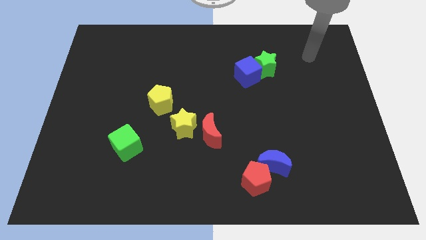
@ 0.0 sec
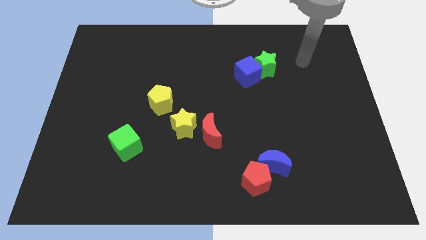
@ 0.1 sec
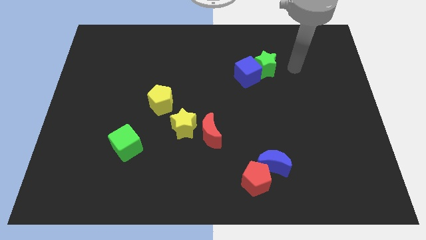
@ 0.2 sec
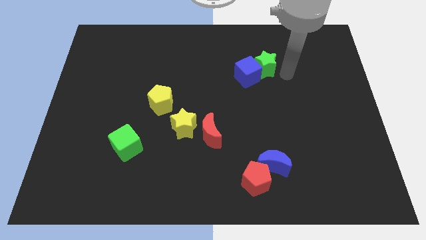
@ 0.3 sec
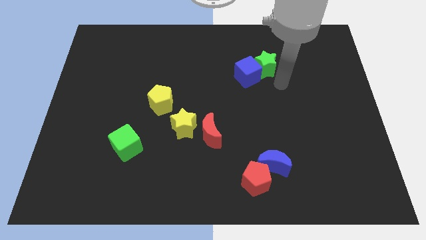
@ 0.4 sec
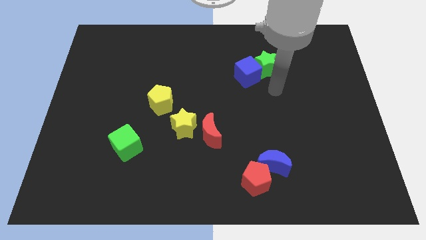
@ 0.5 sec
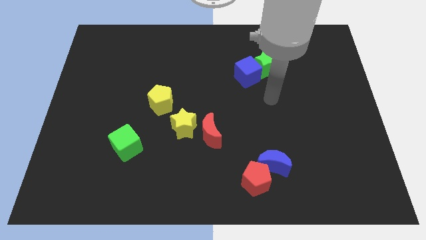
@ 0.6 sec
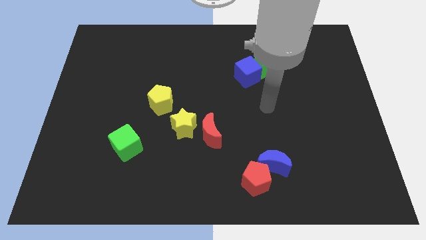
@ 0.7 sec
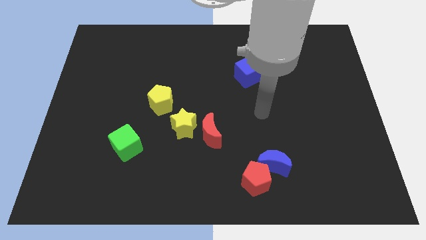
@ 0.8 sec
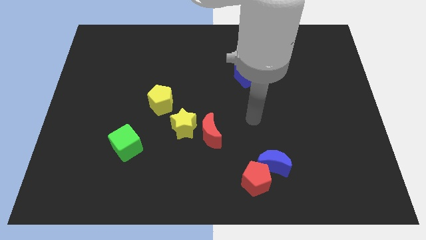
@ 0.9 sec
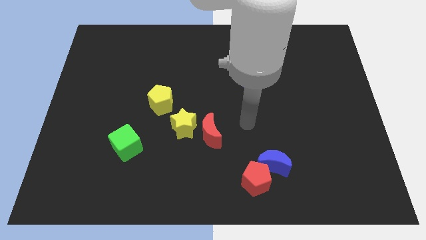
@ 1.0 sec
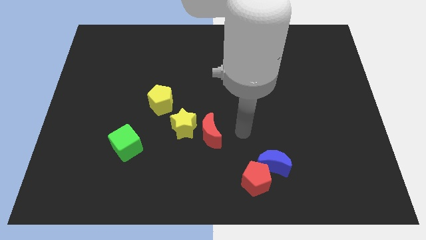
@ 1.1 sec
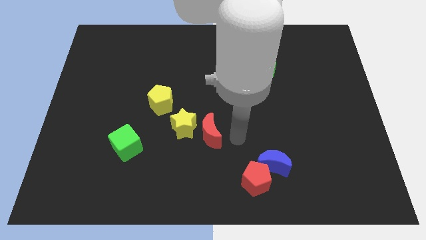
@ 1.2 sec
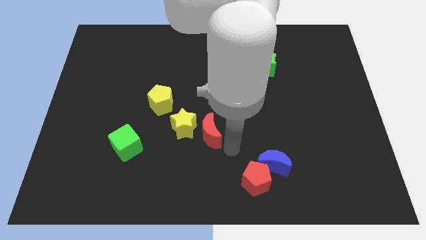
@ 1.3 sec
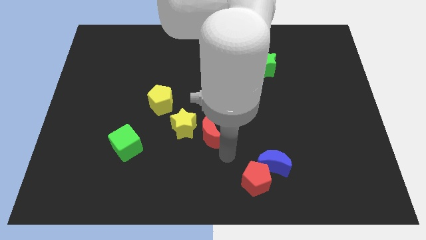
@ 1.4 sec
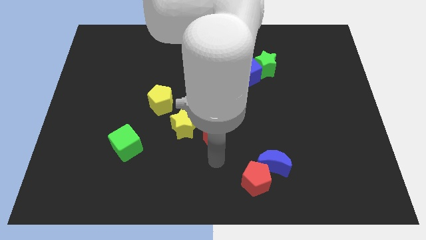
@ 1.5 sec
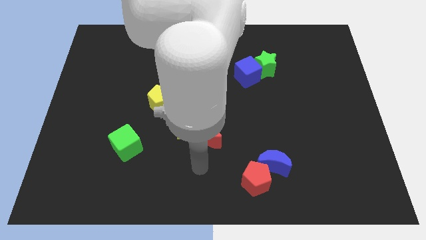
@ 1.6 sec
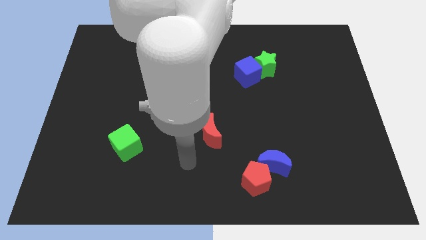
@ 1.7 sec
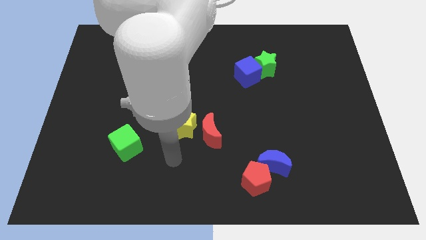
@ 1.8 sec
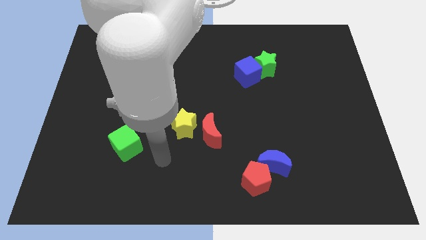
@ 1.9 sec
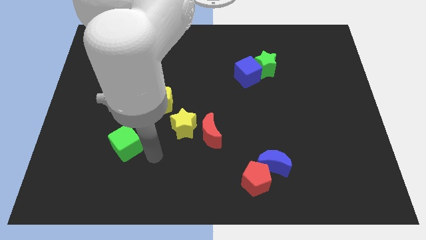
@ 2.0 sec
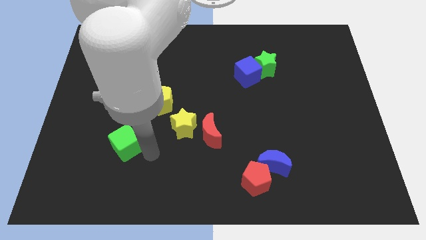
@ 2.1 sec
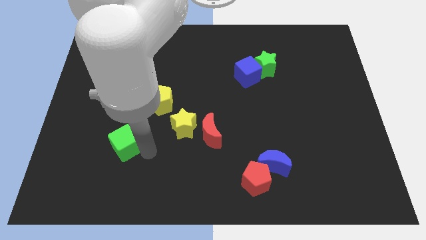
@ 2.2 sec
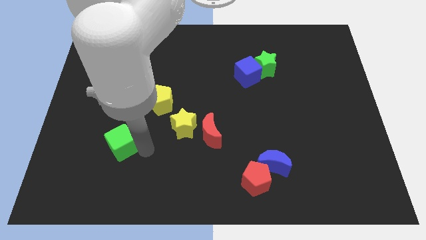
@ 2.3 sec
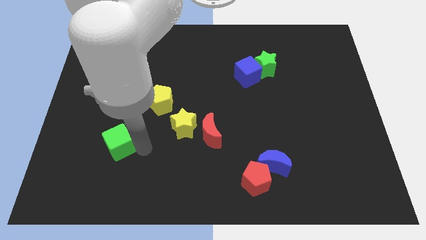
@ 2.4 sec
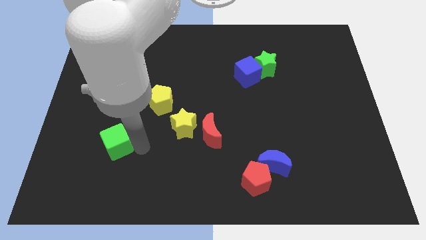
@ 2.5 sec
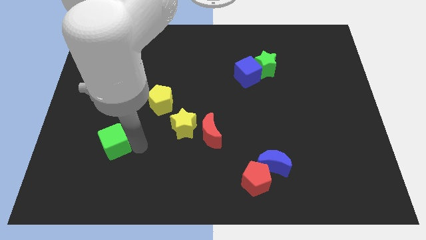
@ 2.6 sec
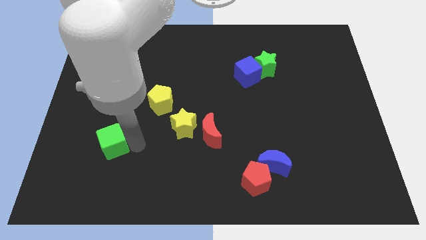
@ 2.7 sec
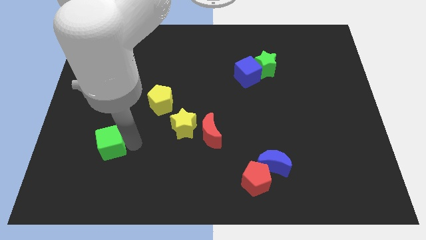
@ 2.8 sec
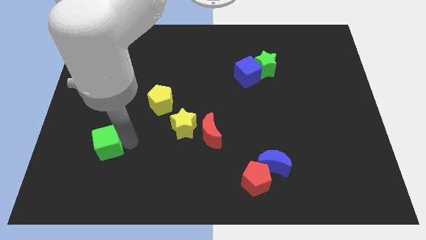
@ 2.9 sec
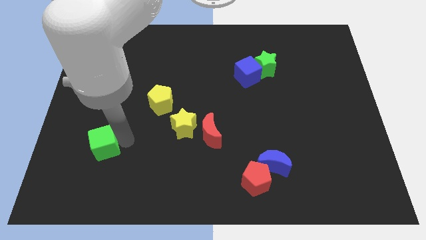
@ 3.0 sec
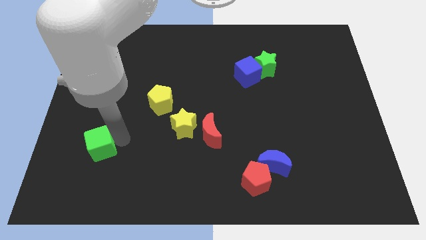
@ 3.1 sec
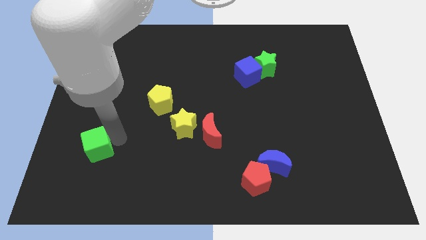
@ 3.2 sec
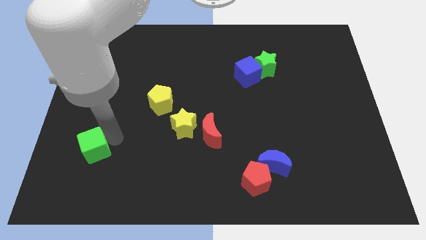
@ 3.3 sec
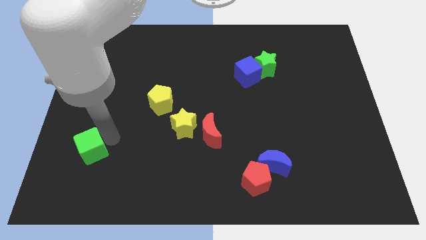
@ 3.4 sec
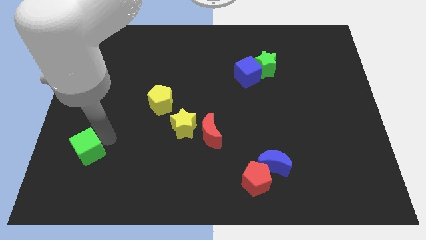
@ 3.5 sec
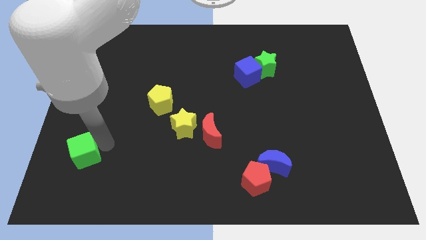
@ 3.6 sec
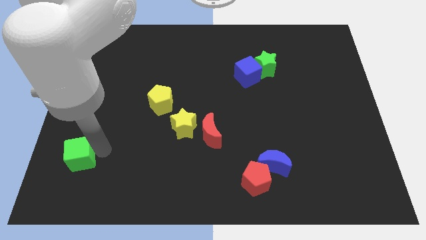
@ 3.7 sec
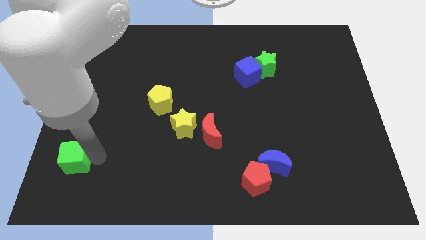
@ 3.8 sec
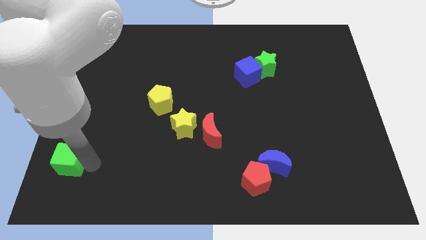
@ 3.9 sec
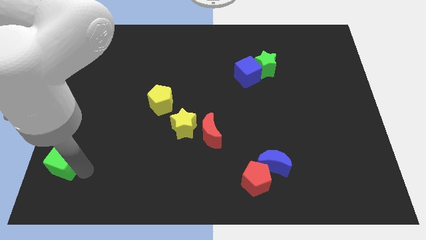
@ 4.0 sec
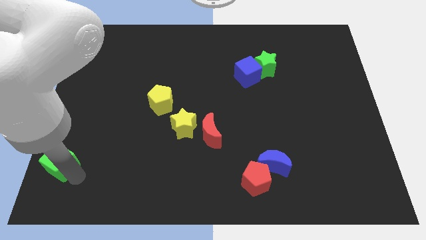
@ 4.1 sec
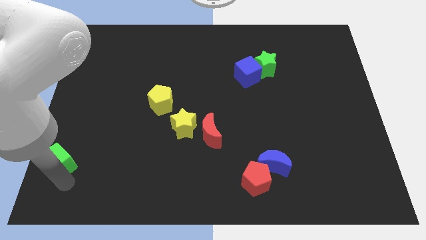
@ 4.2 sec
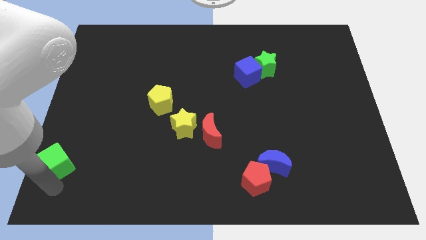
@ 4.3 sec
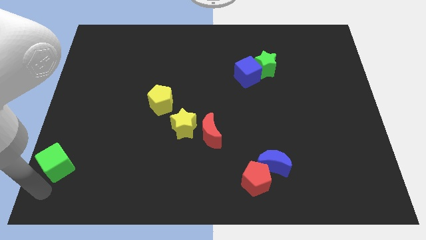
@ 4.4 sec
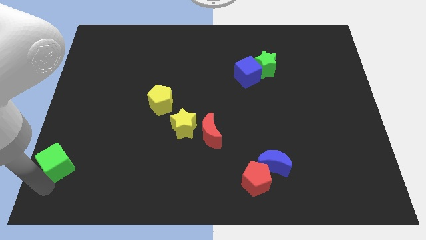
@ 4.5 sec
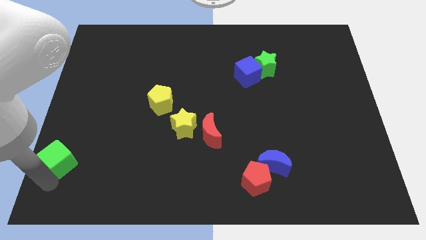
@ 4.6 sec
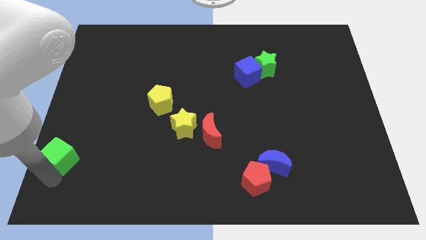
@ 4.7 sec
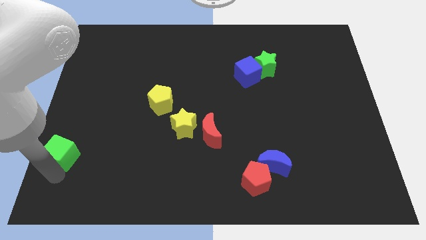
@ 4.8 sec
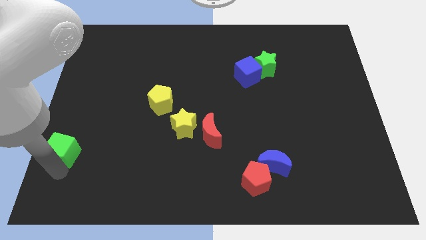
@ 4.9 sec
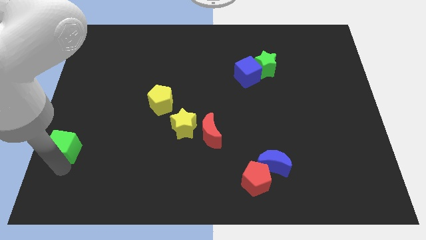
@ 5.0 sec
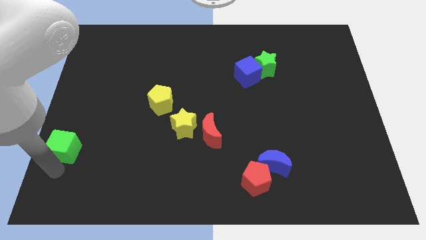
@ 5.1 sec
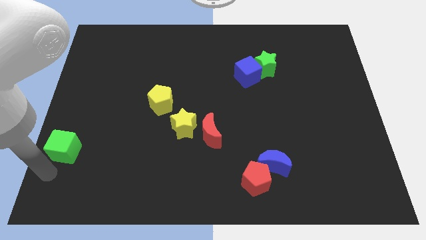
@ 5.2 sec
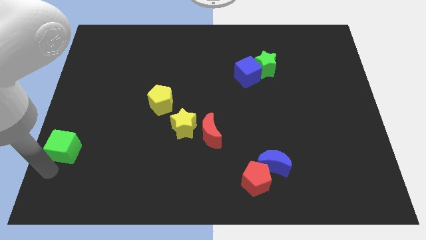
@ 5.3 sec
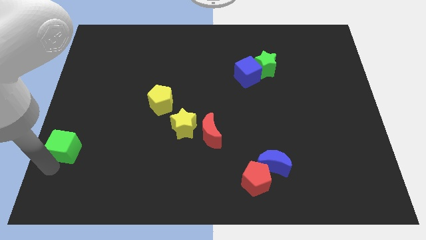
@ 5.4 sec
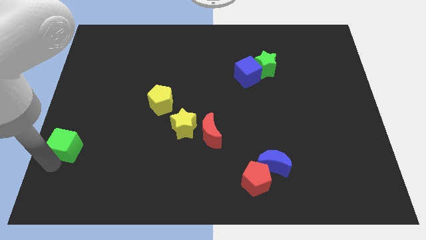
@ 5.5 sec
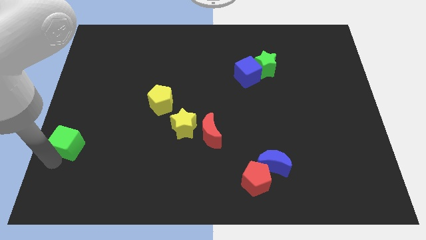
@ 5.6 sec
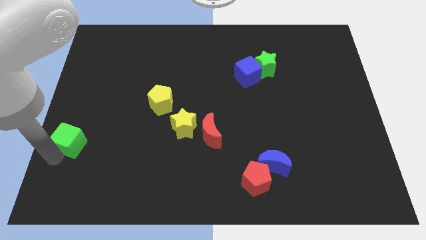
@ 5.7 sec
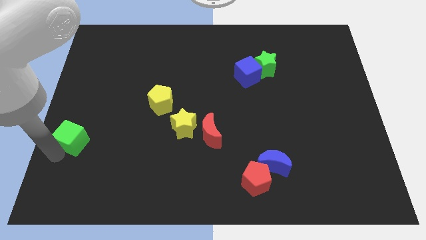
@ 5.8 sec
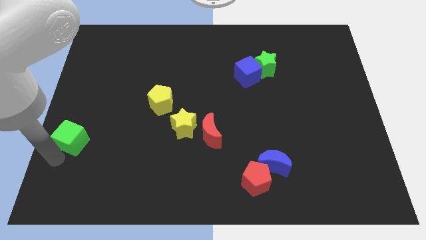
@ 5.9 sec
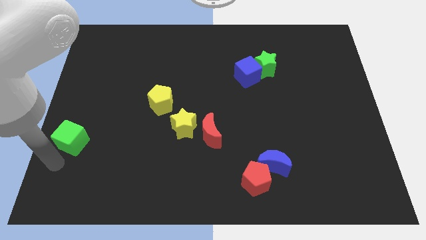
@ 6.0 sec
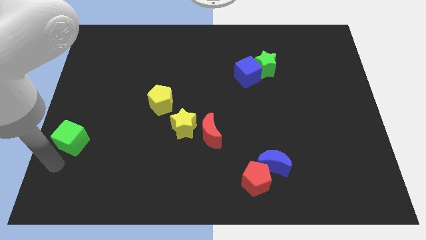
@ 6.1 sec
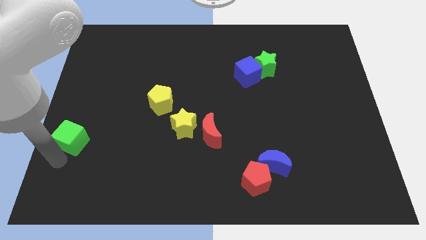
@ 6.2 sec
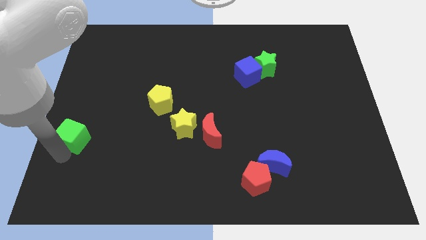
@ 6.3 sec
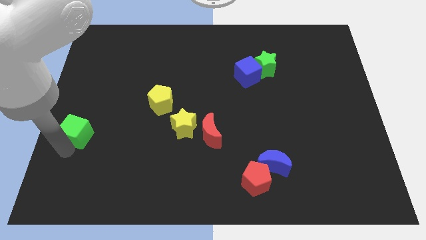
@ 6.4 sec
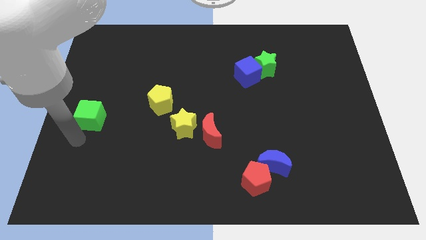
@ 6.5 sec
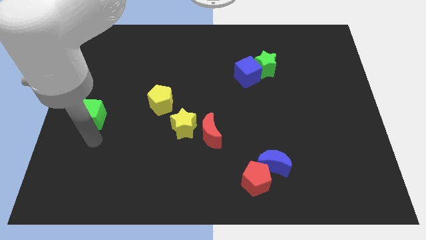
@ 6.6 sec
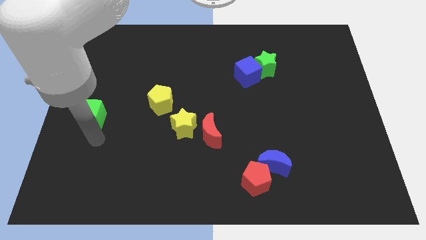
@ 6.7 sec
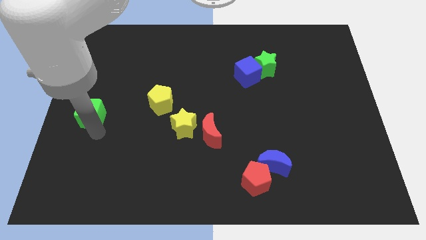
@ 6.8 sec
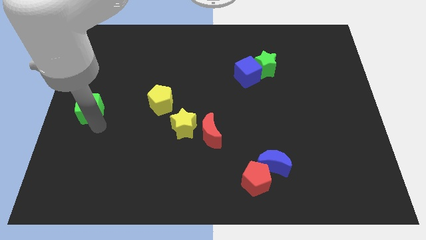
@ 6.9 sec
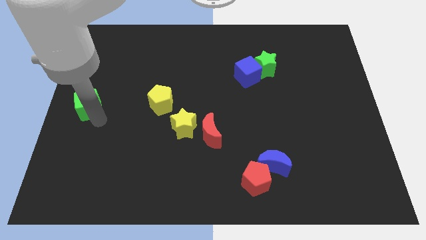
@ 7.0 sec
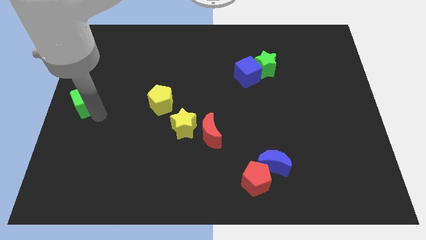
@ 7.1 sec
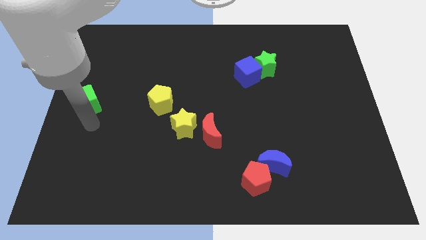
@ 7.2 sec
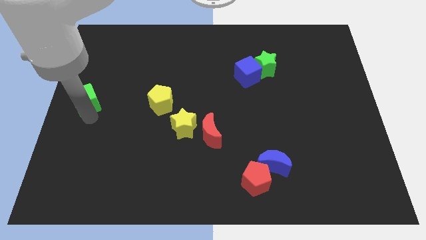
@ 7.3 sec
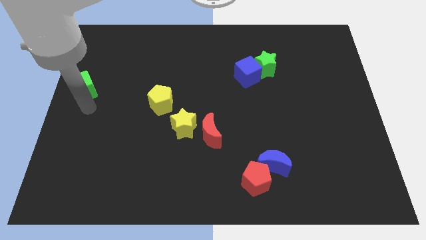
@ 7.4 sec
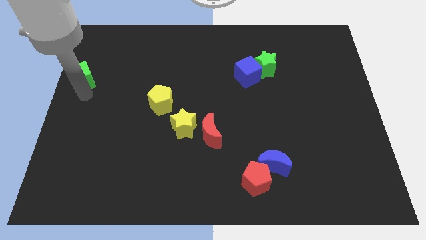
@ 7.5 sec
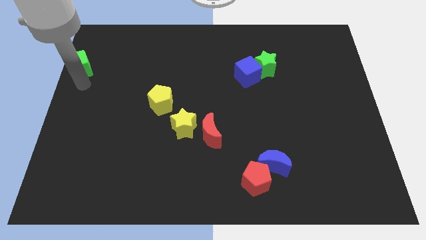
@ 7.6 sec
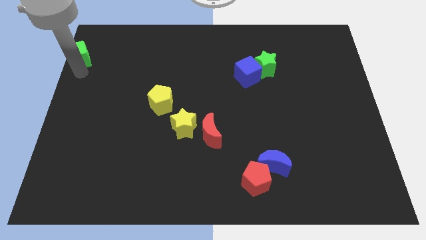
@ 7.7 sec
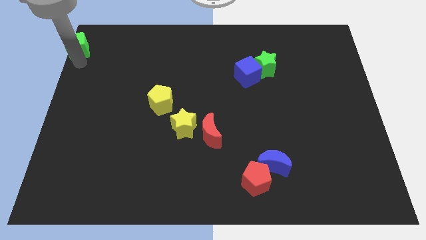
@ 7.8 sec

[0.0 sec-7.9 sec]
move the green cube to the top left corner
